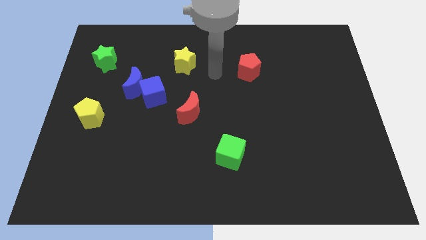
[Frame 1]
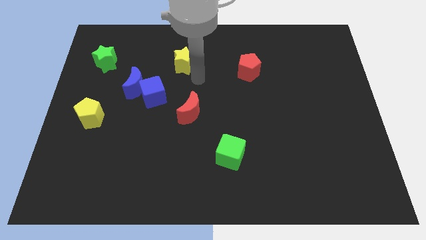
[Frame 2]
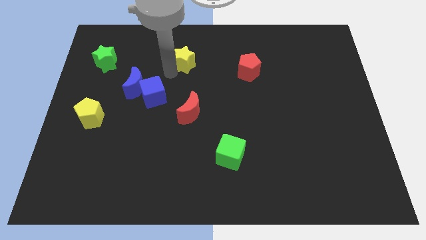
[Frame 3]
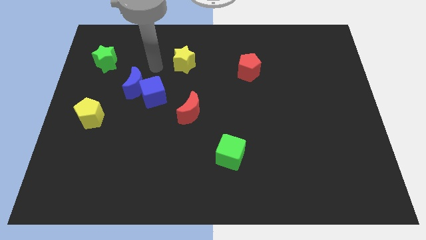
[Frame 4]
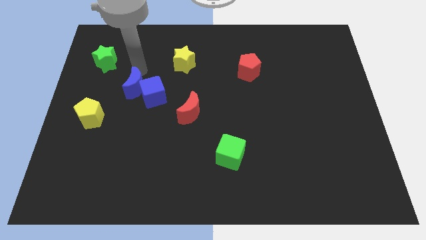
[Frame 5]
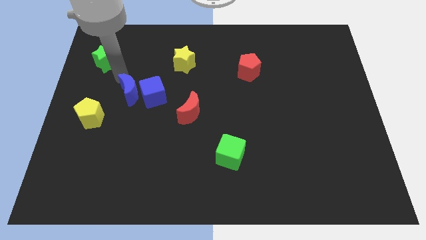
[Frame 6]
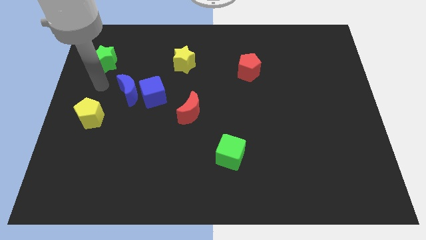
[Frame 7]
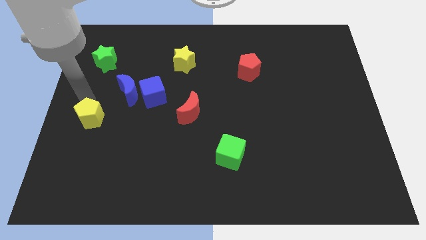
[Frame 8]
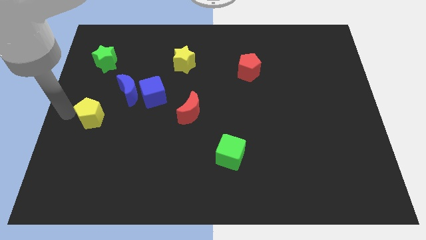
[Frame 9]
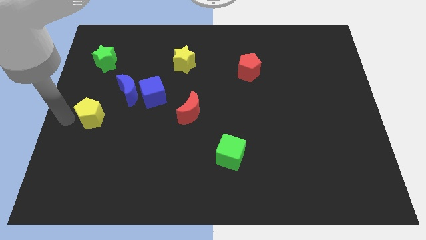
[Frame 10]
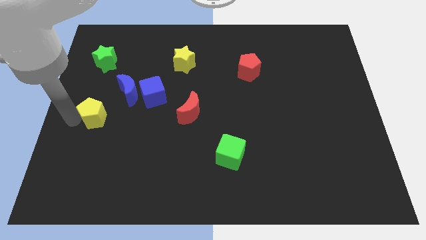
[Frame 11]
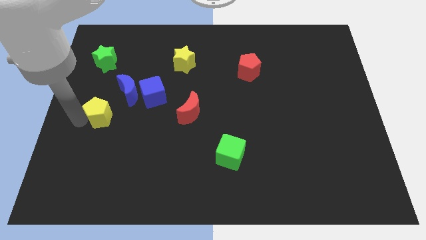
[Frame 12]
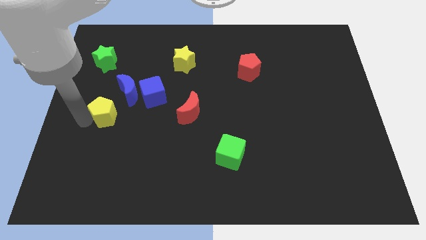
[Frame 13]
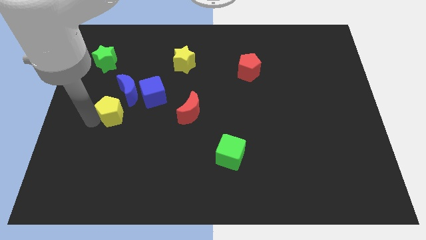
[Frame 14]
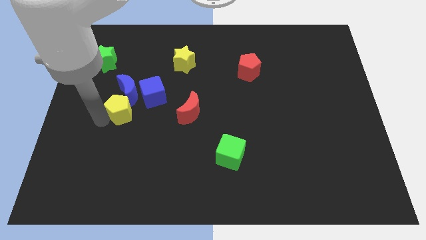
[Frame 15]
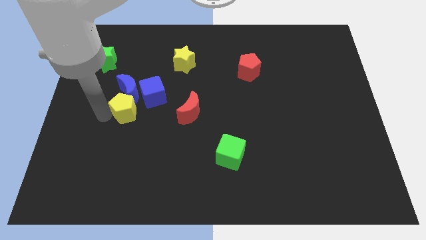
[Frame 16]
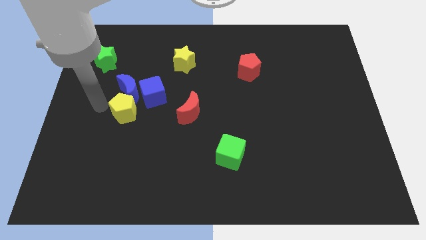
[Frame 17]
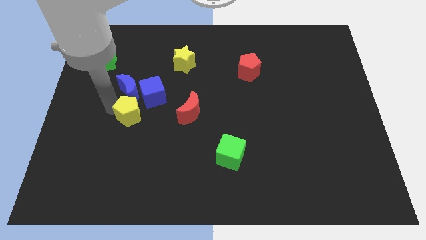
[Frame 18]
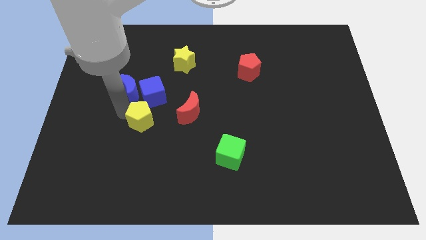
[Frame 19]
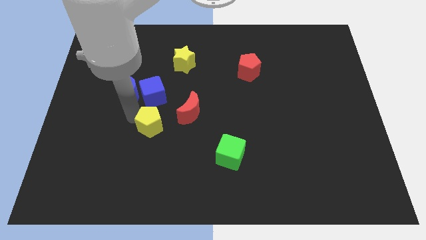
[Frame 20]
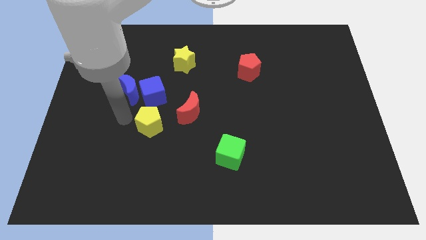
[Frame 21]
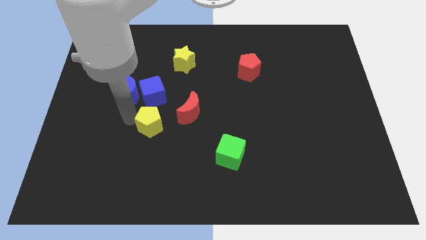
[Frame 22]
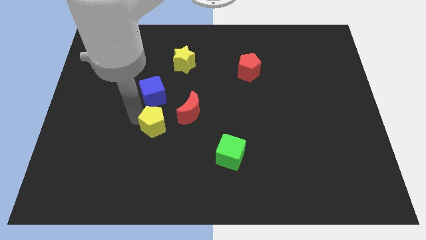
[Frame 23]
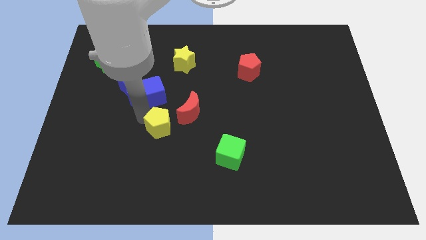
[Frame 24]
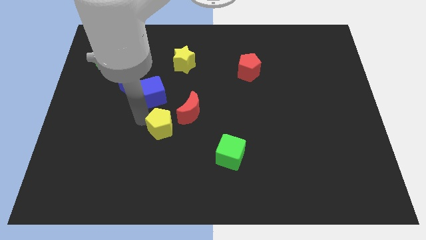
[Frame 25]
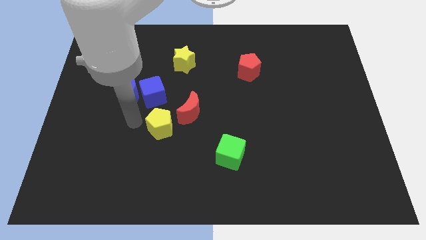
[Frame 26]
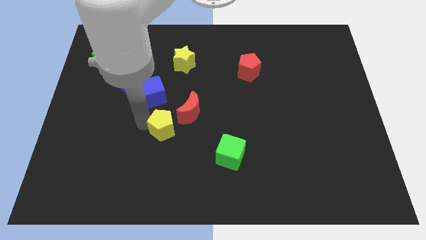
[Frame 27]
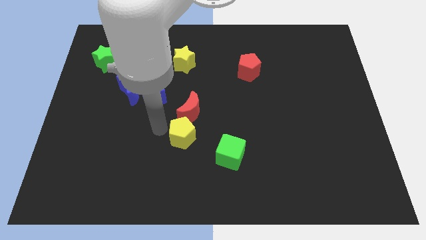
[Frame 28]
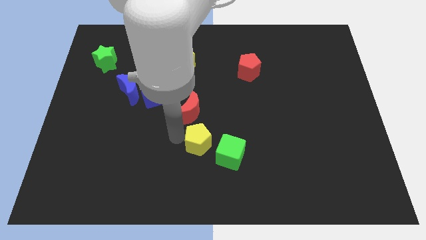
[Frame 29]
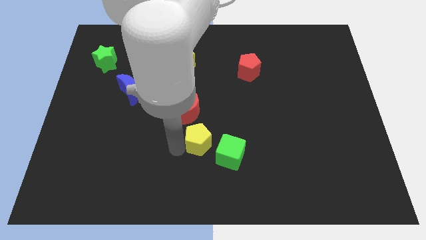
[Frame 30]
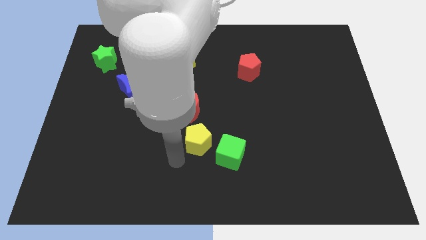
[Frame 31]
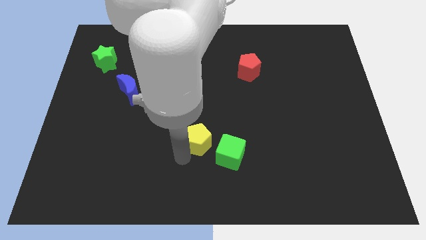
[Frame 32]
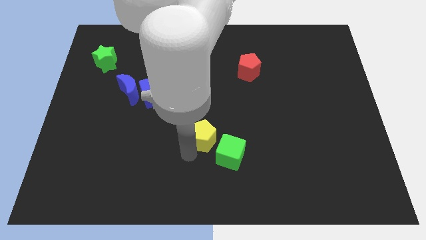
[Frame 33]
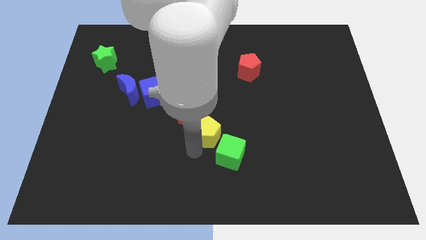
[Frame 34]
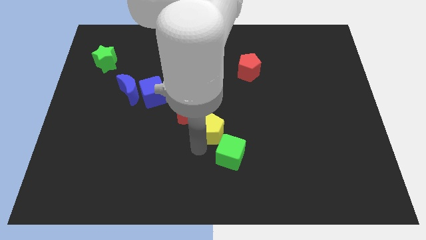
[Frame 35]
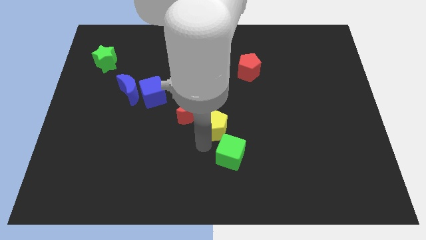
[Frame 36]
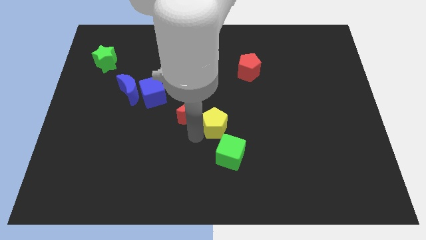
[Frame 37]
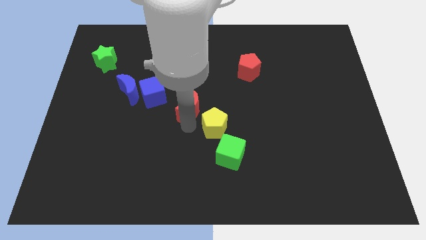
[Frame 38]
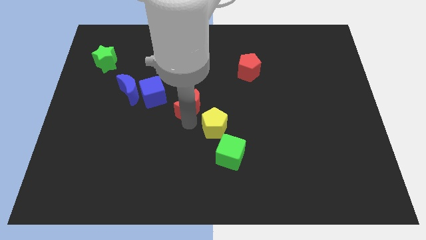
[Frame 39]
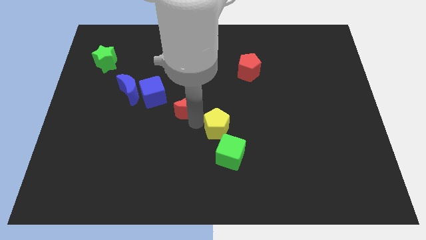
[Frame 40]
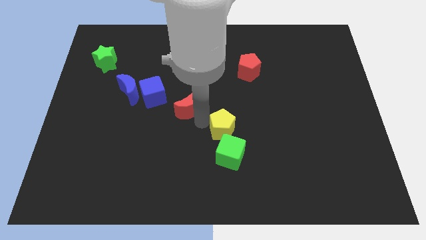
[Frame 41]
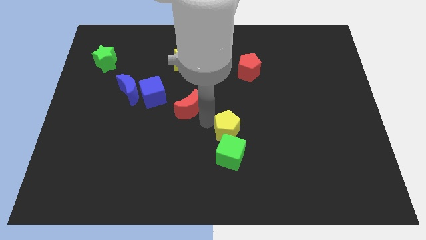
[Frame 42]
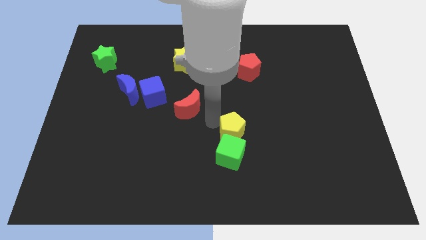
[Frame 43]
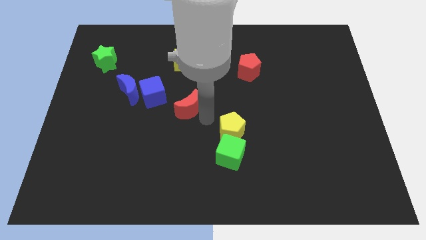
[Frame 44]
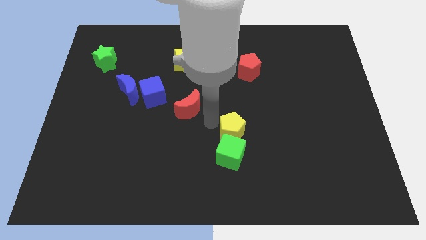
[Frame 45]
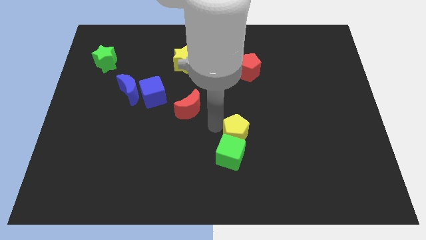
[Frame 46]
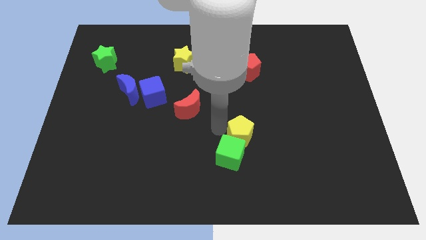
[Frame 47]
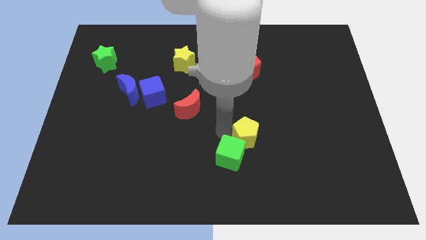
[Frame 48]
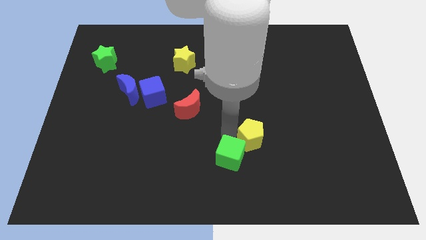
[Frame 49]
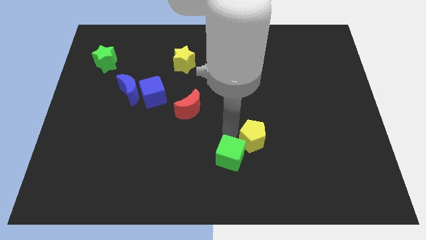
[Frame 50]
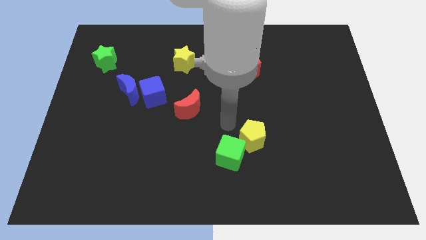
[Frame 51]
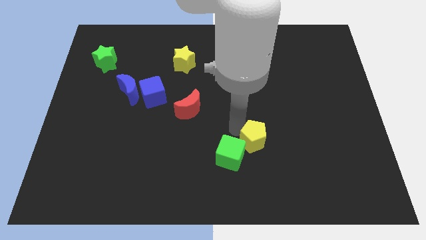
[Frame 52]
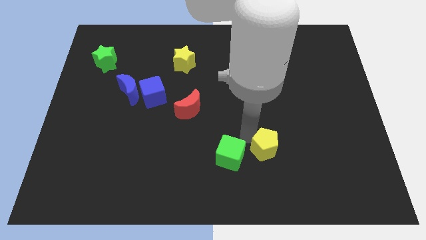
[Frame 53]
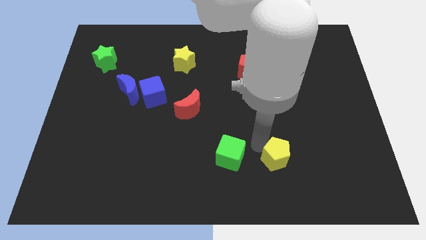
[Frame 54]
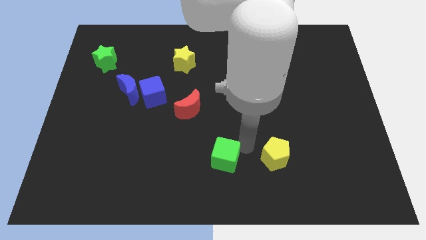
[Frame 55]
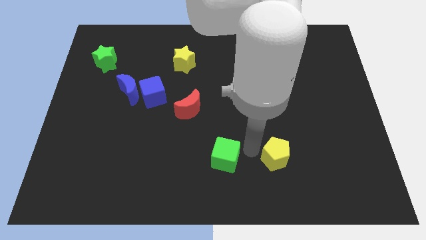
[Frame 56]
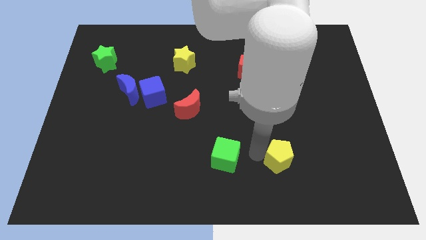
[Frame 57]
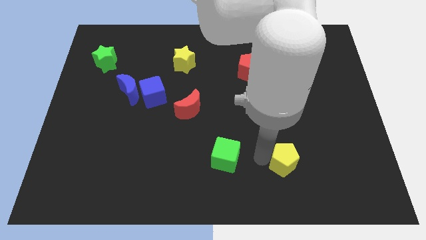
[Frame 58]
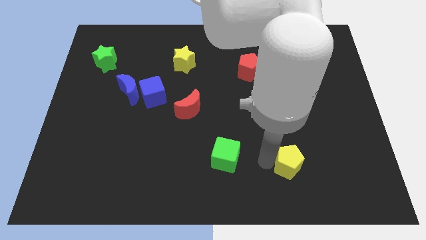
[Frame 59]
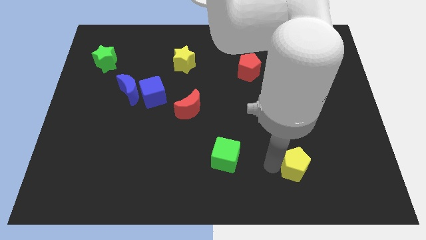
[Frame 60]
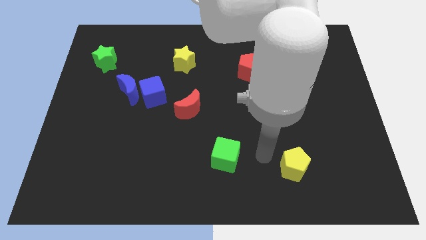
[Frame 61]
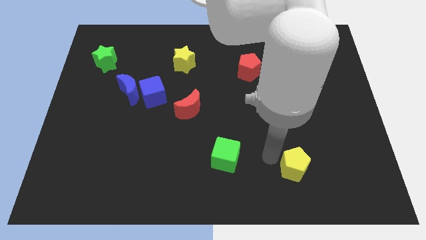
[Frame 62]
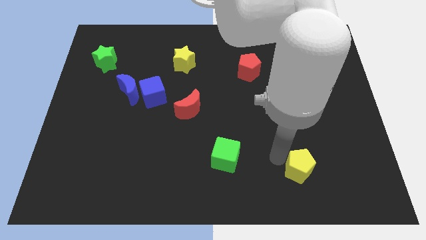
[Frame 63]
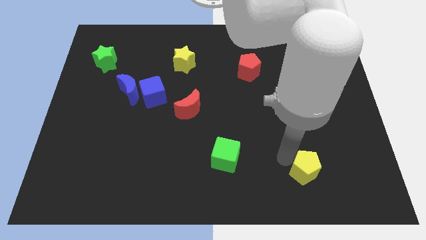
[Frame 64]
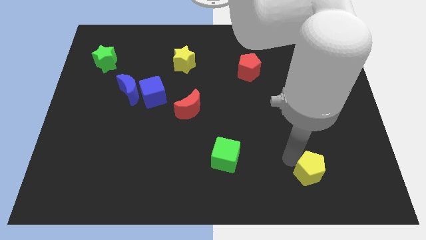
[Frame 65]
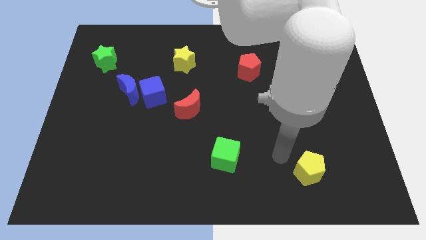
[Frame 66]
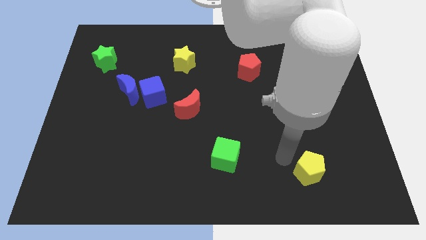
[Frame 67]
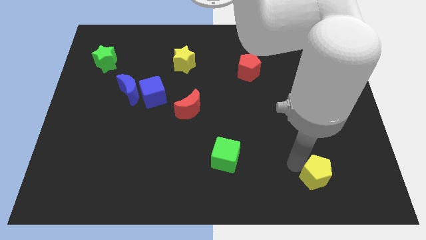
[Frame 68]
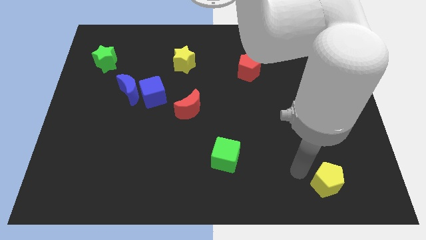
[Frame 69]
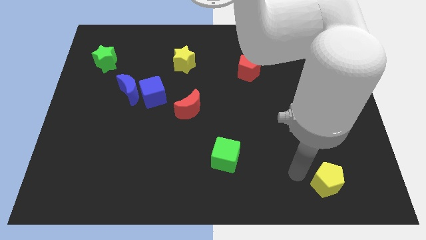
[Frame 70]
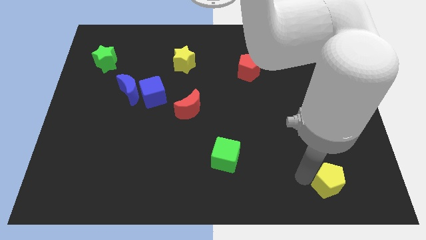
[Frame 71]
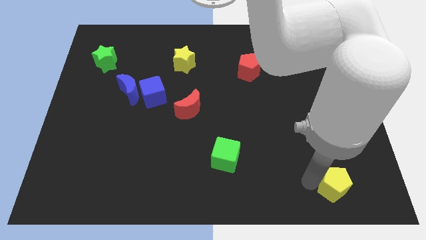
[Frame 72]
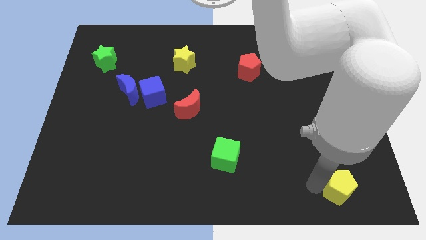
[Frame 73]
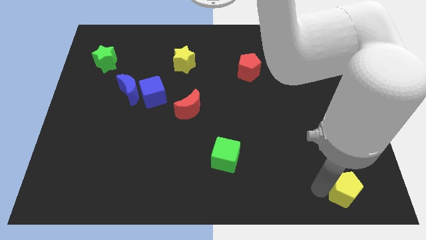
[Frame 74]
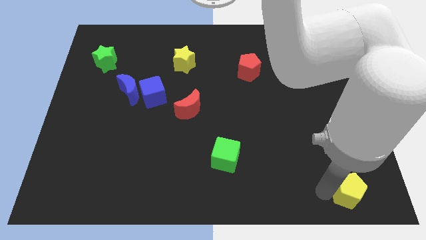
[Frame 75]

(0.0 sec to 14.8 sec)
put the yellow pentagon to the lower right corner
